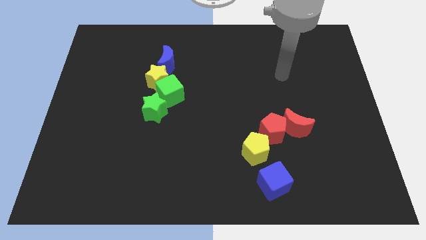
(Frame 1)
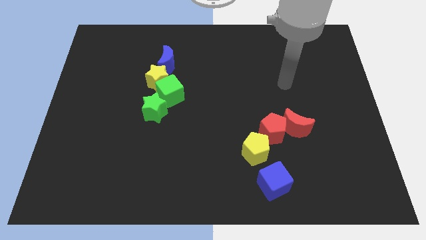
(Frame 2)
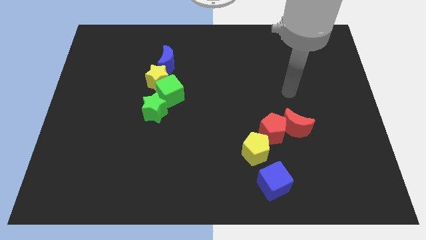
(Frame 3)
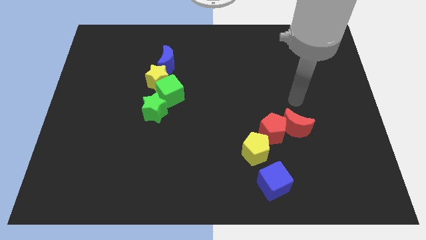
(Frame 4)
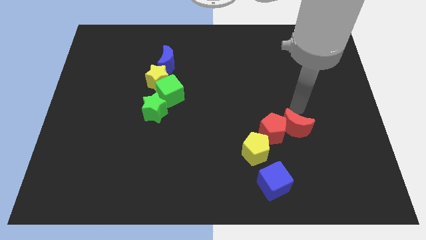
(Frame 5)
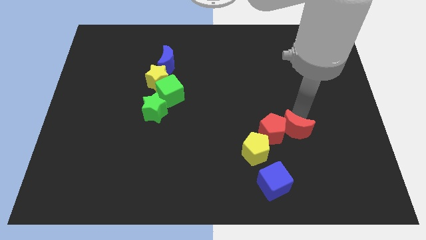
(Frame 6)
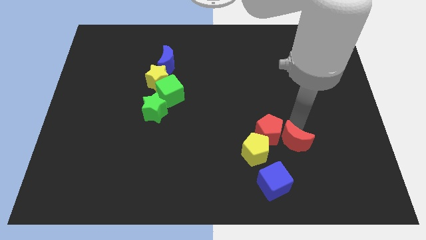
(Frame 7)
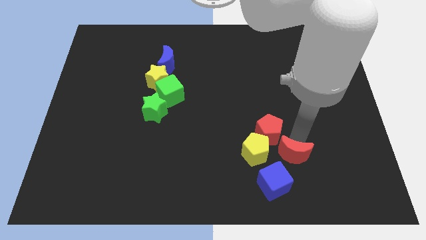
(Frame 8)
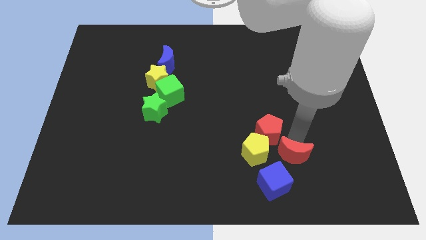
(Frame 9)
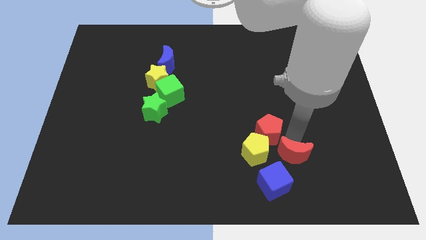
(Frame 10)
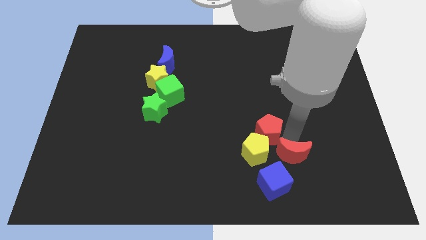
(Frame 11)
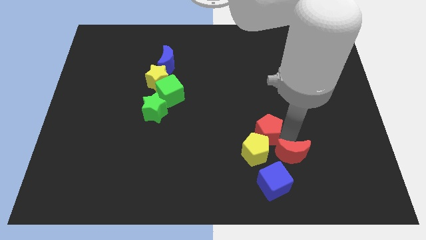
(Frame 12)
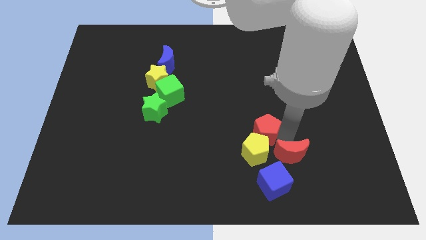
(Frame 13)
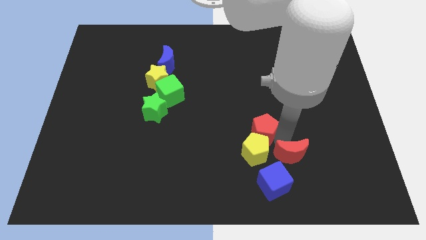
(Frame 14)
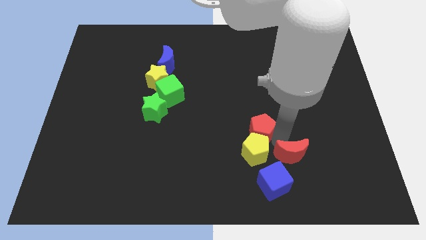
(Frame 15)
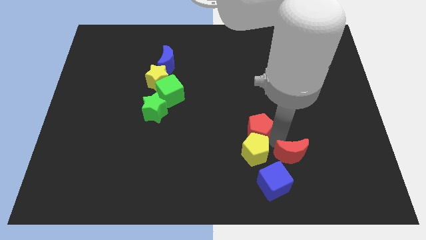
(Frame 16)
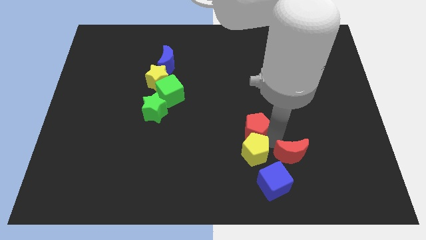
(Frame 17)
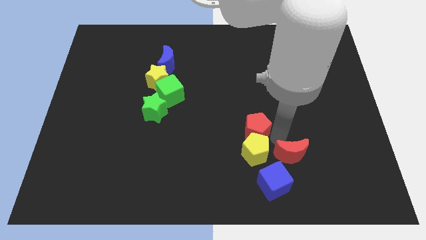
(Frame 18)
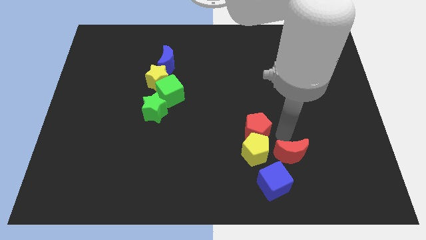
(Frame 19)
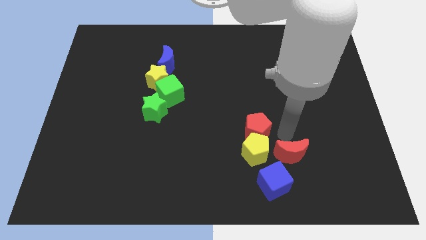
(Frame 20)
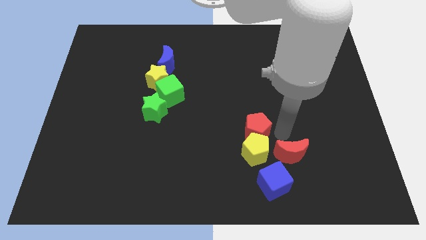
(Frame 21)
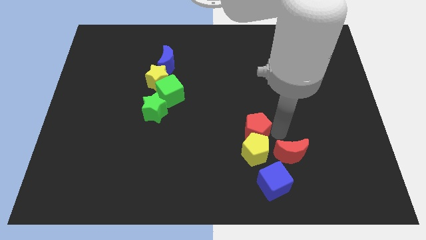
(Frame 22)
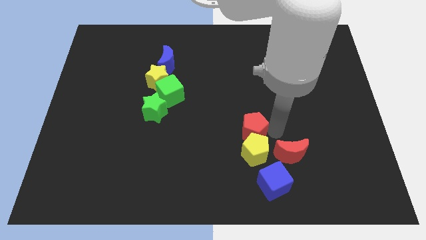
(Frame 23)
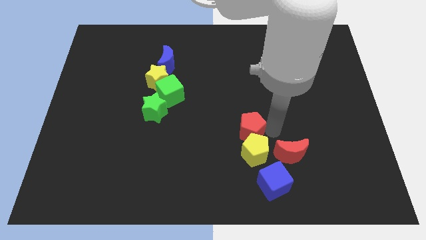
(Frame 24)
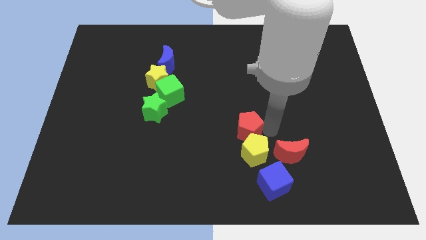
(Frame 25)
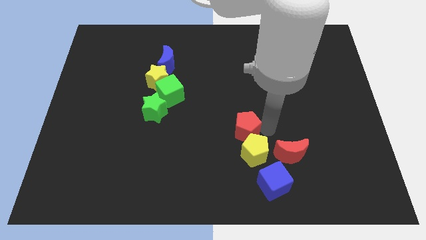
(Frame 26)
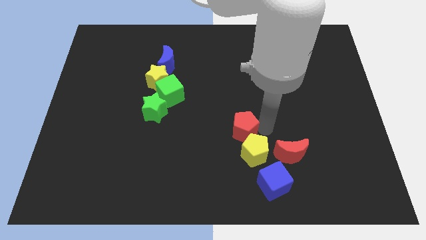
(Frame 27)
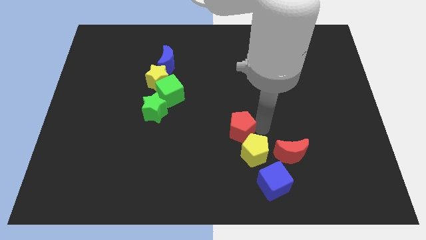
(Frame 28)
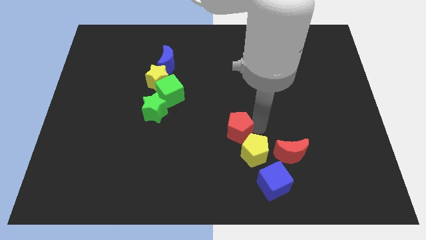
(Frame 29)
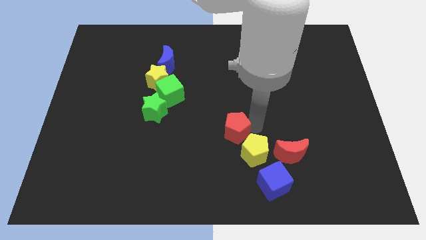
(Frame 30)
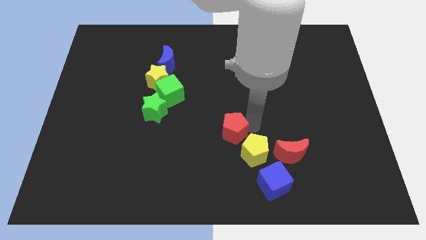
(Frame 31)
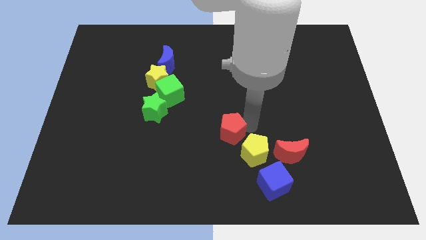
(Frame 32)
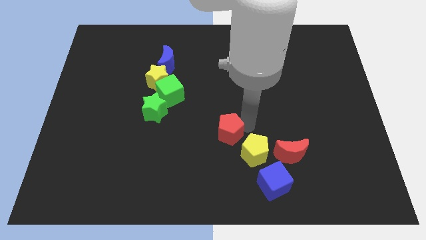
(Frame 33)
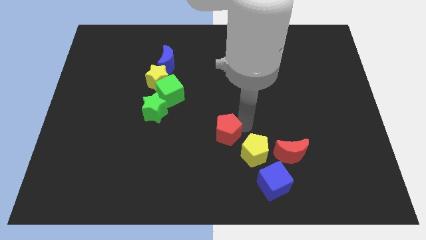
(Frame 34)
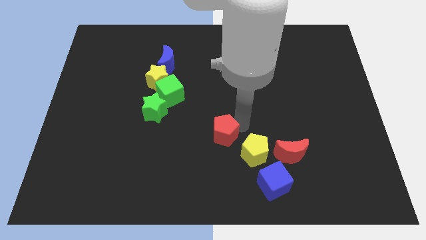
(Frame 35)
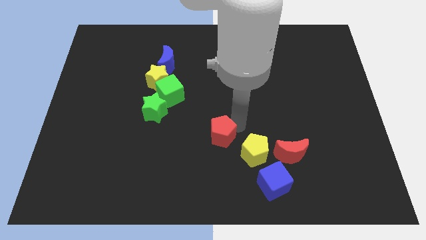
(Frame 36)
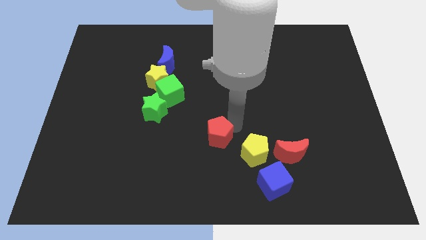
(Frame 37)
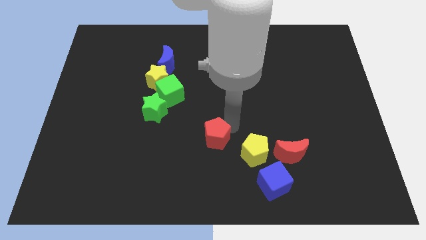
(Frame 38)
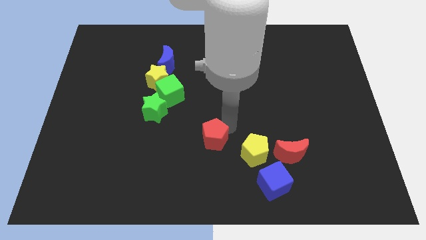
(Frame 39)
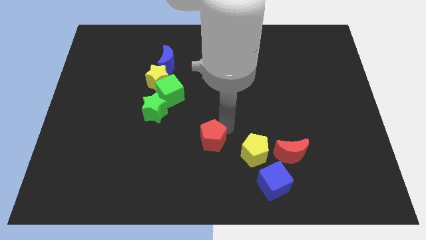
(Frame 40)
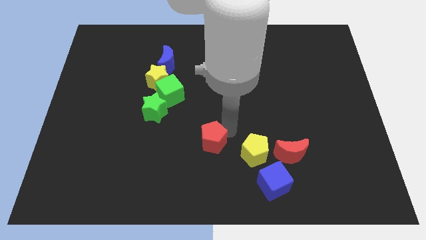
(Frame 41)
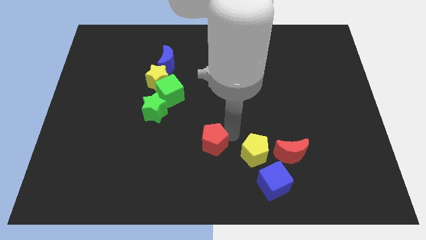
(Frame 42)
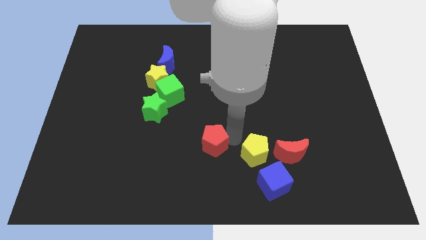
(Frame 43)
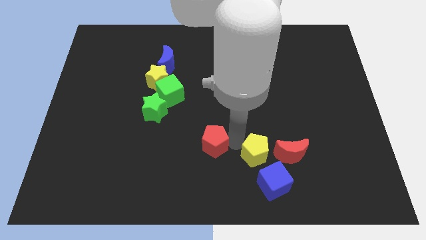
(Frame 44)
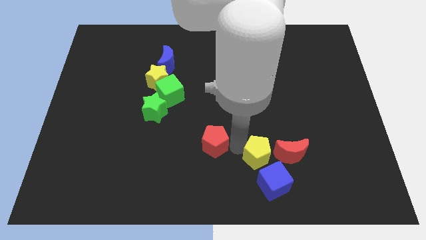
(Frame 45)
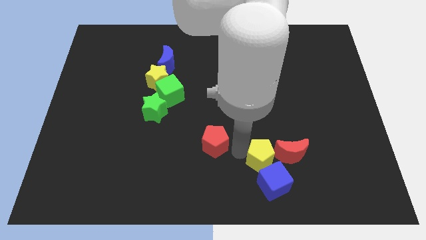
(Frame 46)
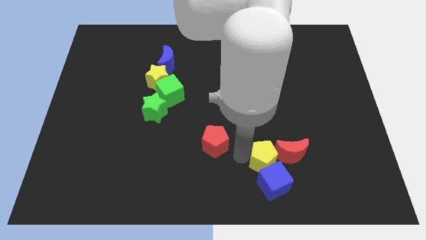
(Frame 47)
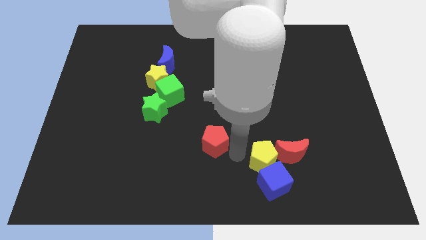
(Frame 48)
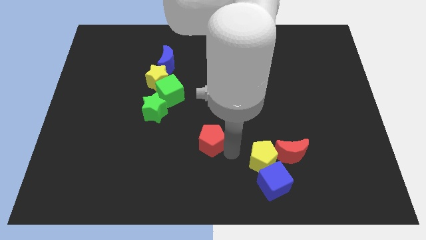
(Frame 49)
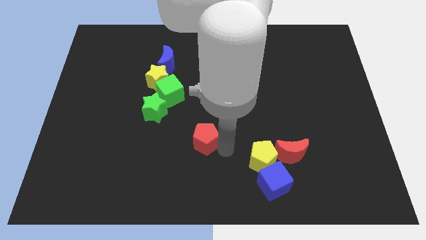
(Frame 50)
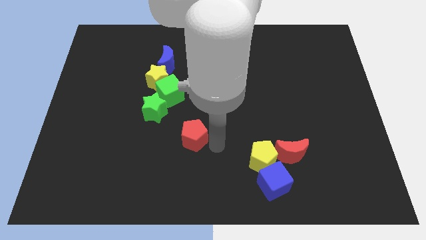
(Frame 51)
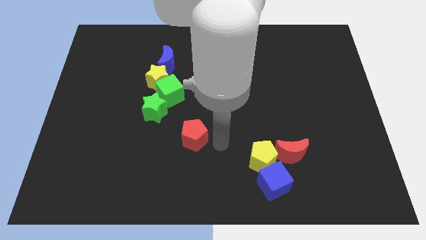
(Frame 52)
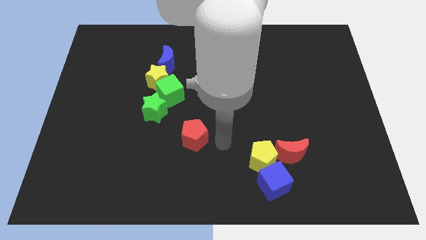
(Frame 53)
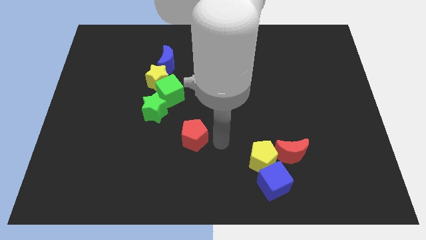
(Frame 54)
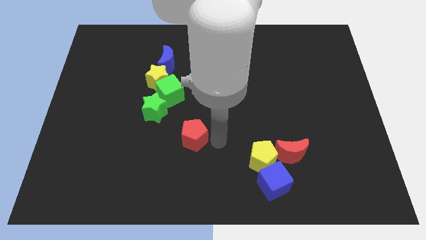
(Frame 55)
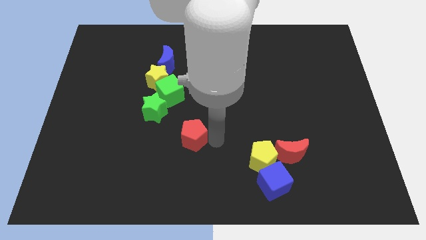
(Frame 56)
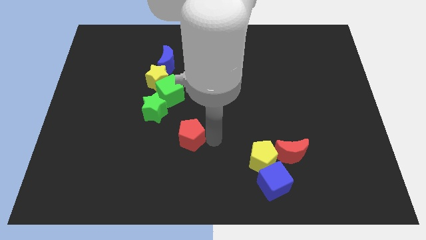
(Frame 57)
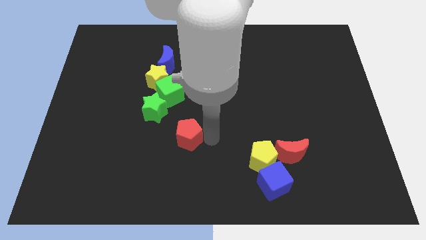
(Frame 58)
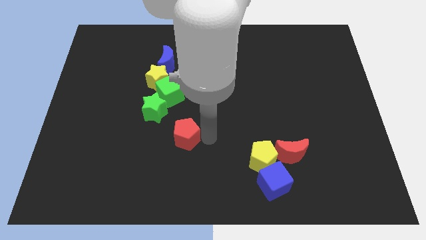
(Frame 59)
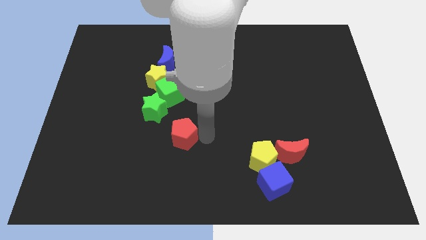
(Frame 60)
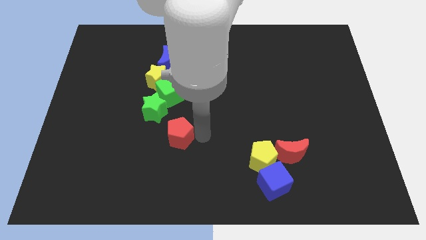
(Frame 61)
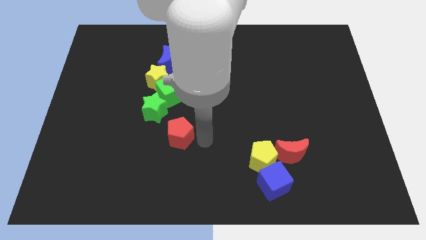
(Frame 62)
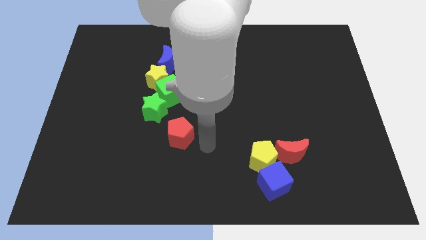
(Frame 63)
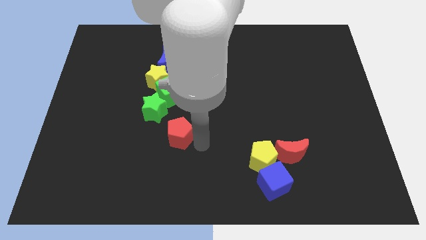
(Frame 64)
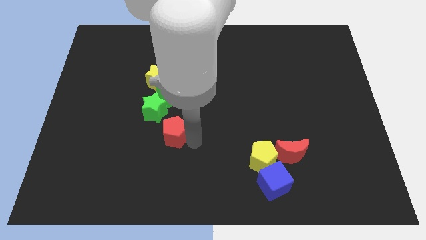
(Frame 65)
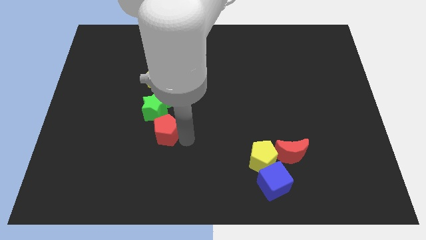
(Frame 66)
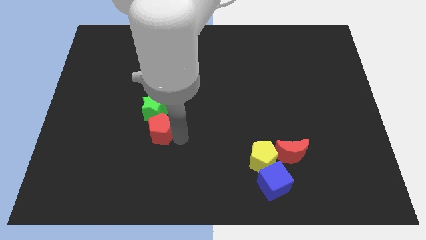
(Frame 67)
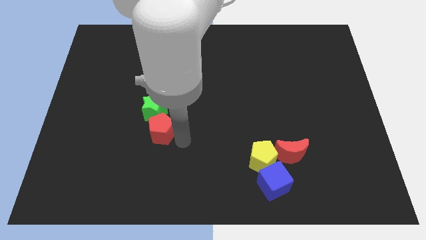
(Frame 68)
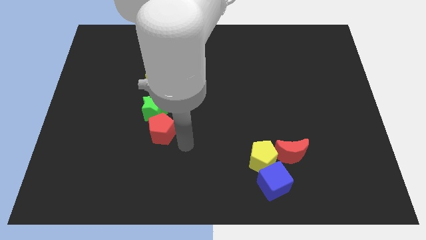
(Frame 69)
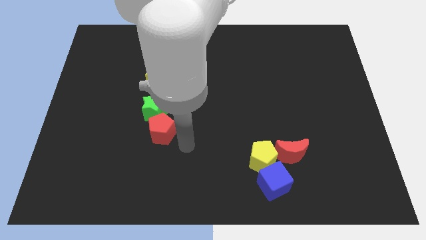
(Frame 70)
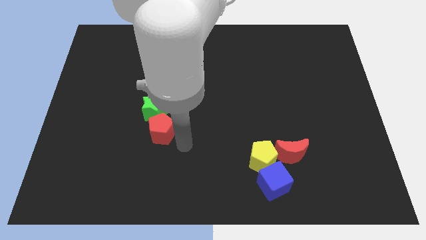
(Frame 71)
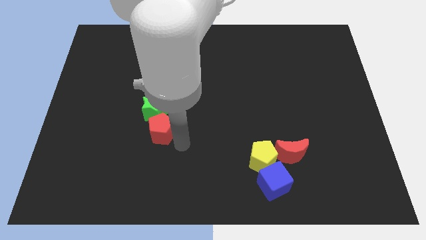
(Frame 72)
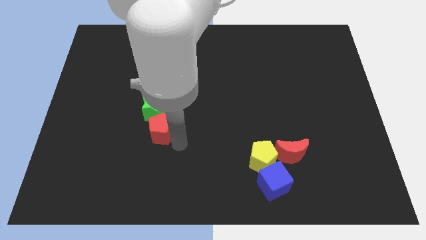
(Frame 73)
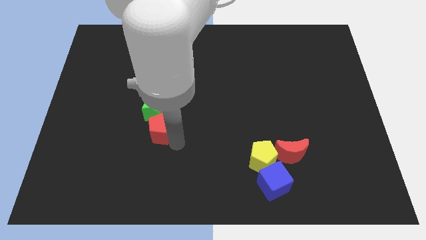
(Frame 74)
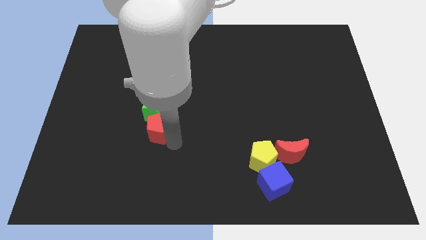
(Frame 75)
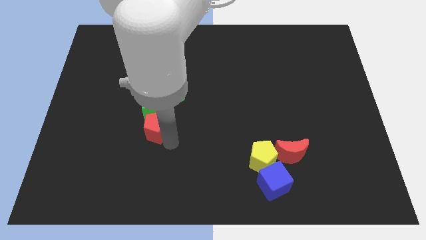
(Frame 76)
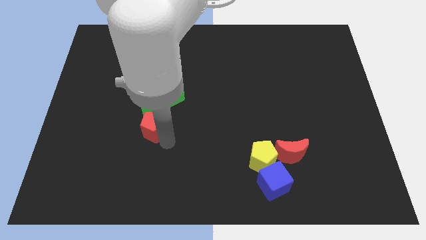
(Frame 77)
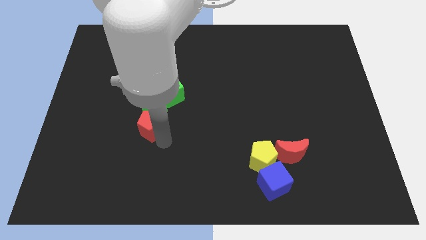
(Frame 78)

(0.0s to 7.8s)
slide the red pentagon to the bottom left of the green cube
